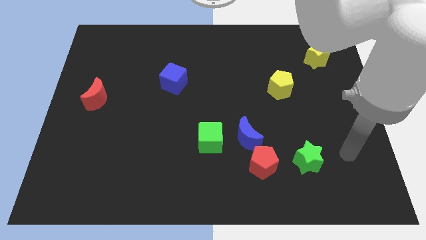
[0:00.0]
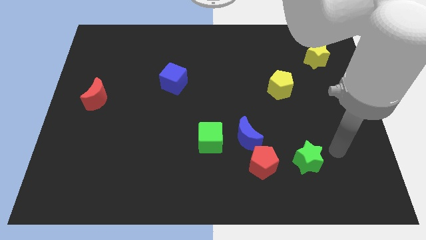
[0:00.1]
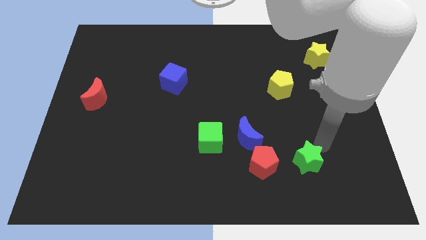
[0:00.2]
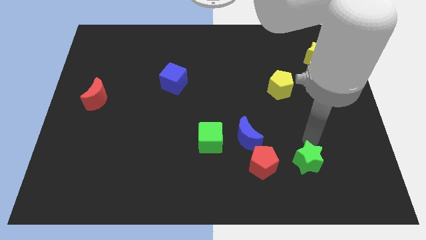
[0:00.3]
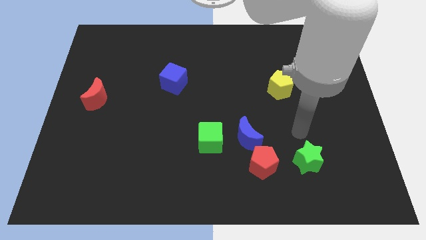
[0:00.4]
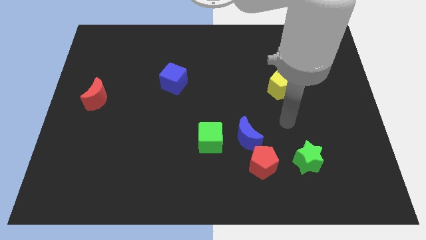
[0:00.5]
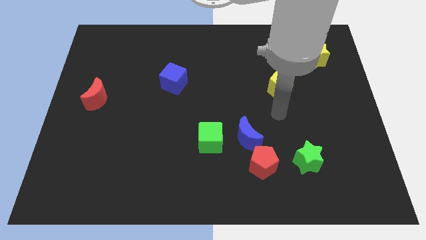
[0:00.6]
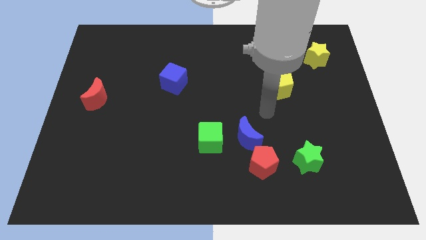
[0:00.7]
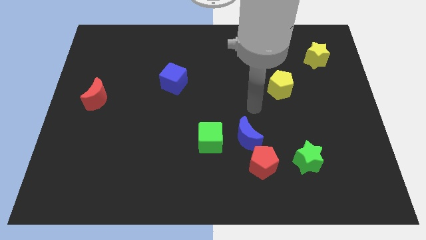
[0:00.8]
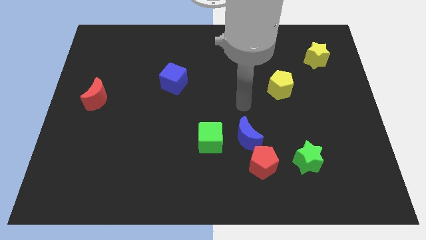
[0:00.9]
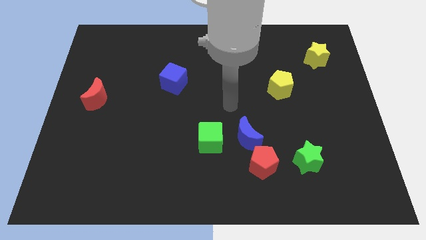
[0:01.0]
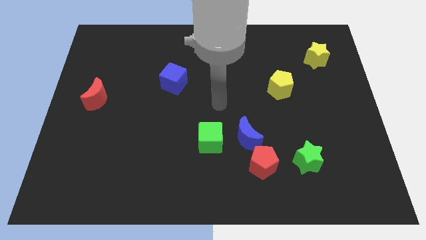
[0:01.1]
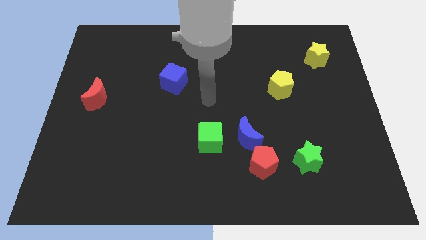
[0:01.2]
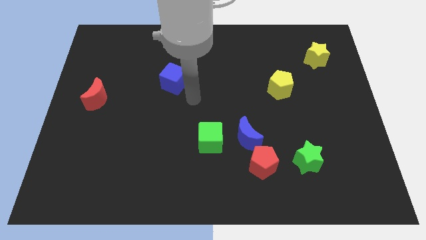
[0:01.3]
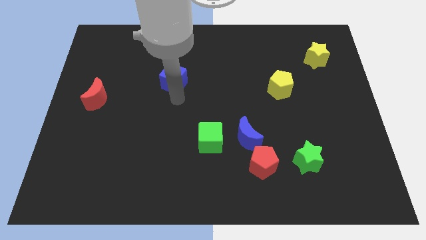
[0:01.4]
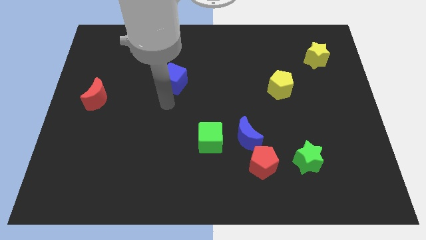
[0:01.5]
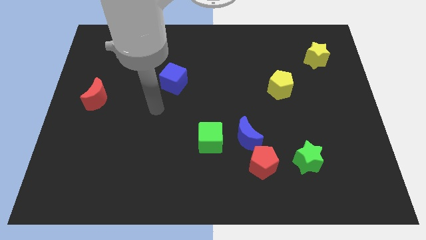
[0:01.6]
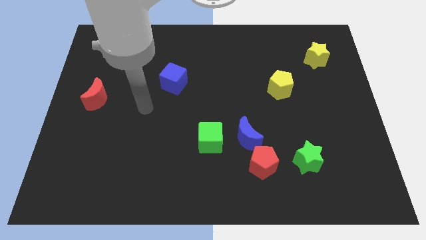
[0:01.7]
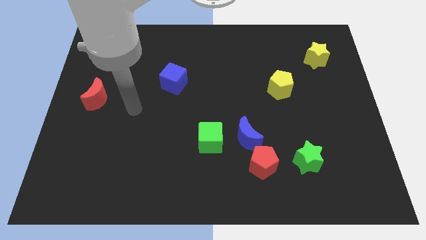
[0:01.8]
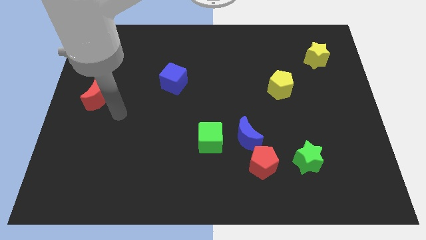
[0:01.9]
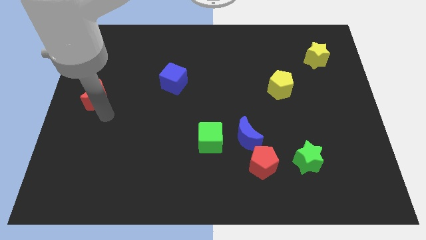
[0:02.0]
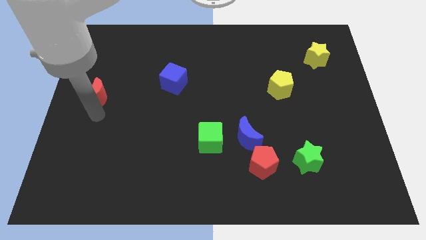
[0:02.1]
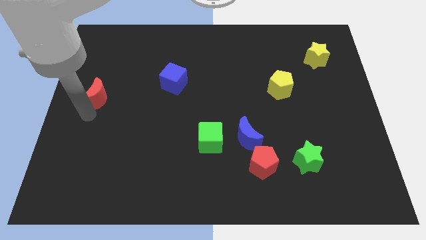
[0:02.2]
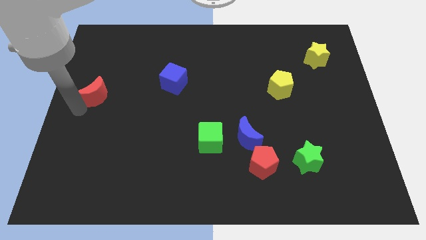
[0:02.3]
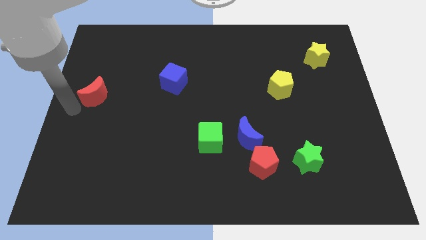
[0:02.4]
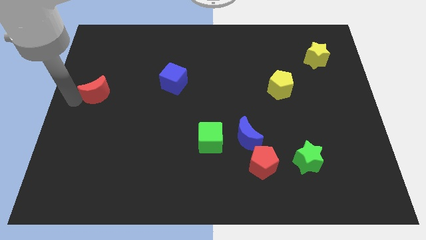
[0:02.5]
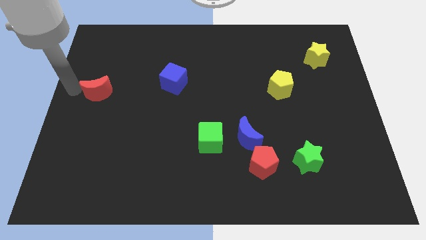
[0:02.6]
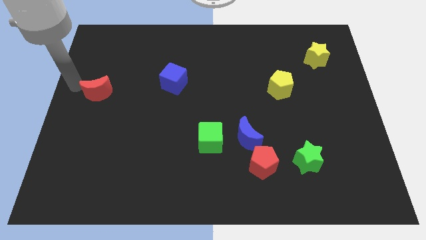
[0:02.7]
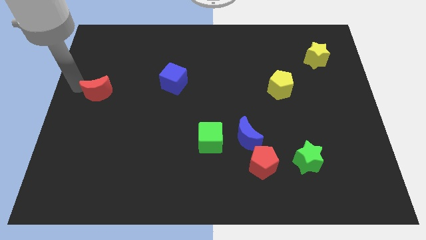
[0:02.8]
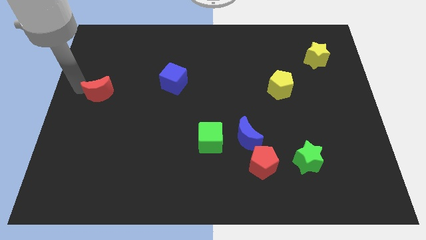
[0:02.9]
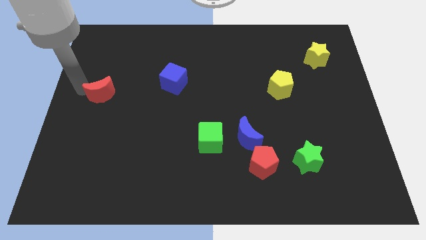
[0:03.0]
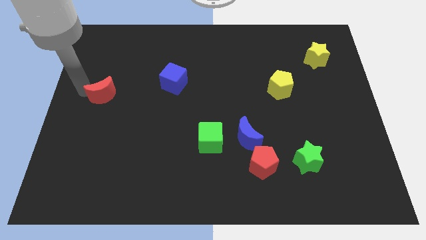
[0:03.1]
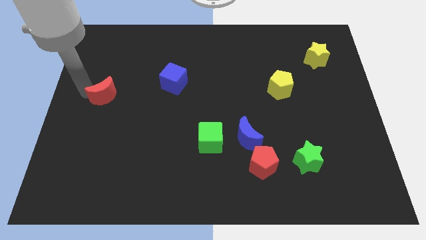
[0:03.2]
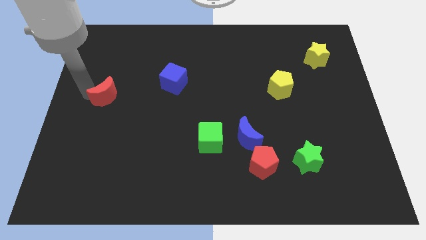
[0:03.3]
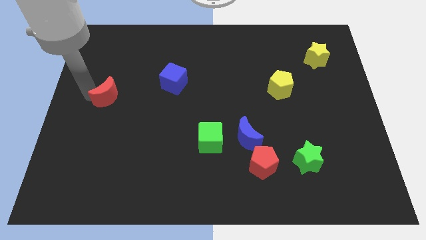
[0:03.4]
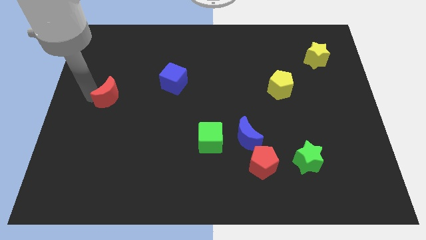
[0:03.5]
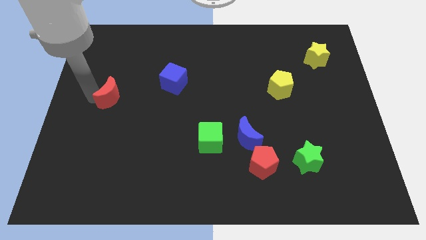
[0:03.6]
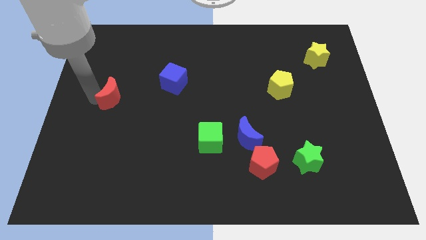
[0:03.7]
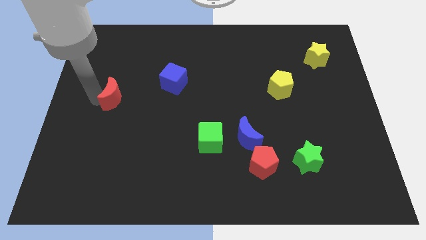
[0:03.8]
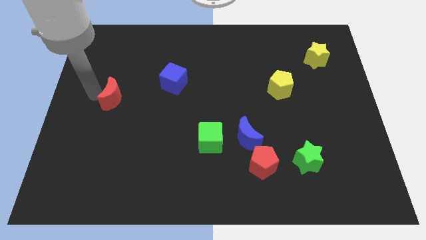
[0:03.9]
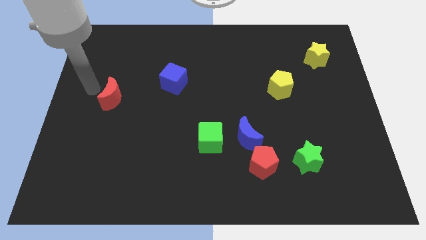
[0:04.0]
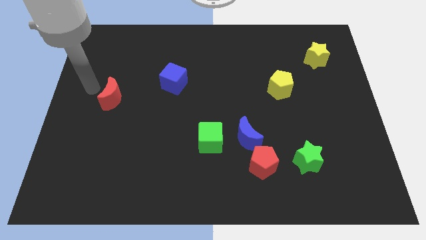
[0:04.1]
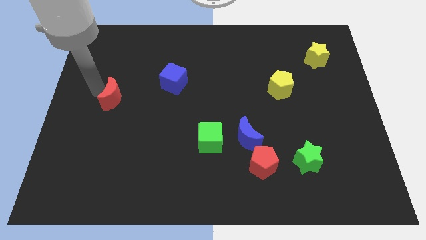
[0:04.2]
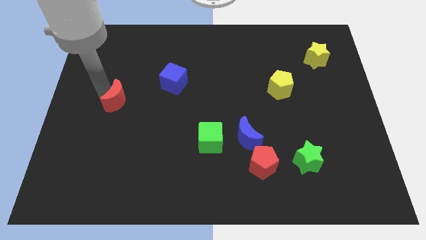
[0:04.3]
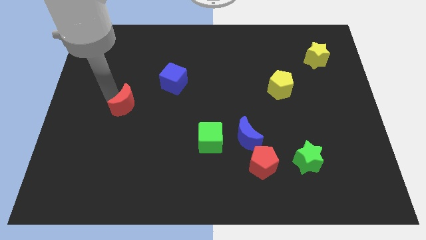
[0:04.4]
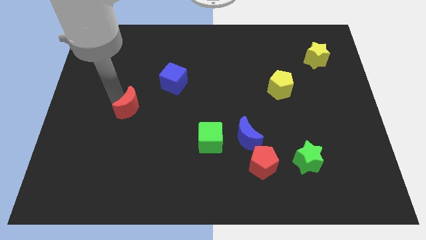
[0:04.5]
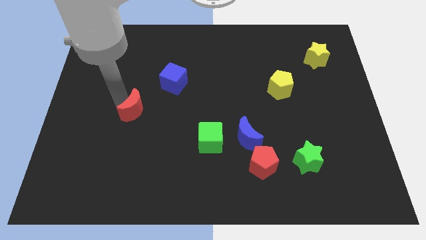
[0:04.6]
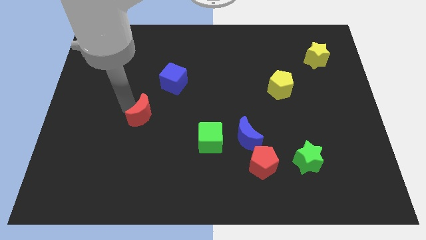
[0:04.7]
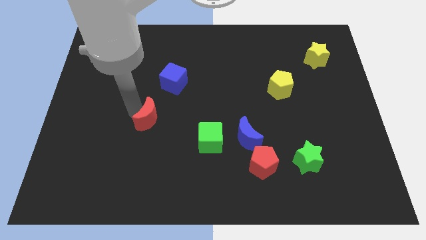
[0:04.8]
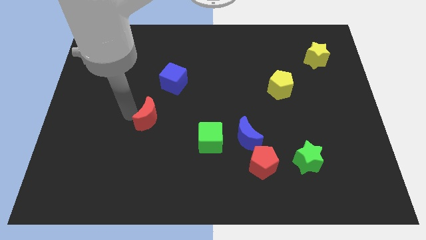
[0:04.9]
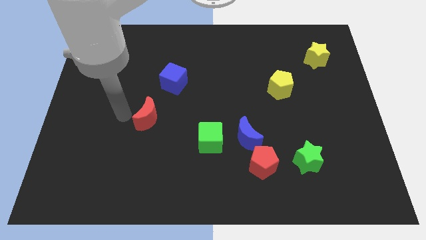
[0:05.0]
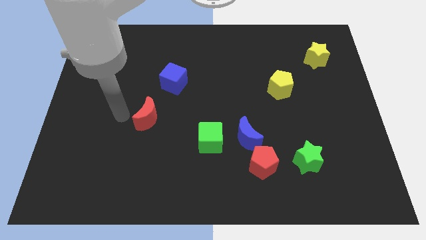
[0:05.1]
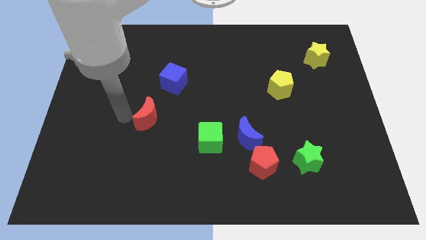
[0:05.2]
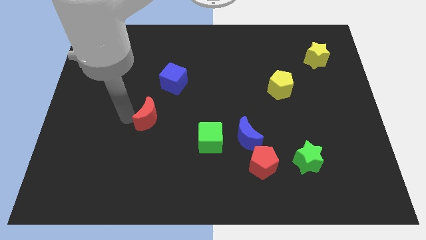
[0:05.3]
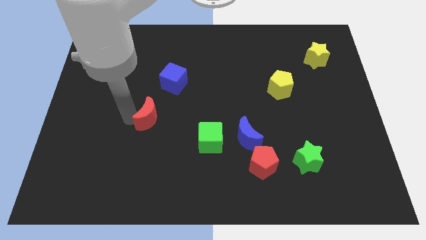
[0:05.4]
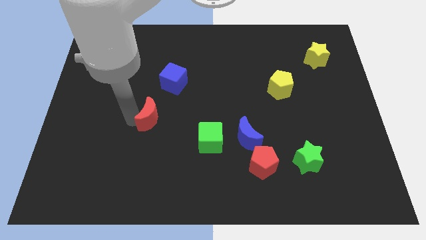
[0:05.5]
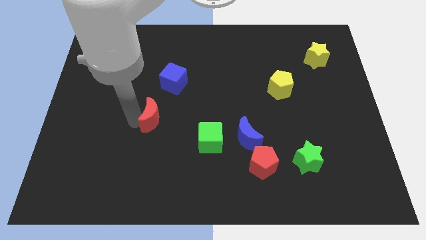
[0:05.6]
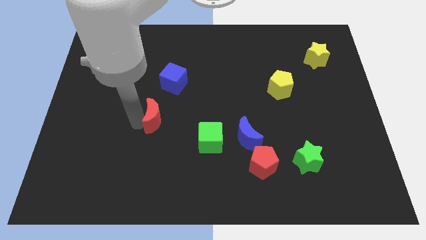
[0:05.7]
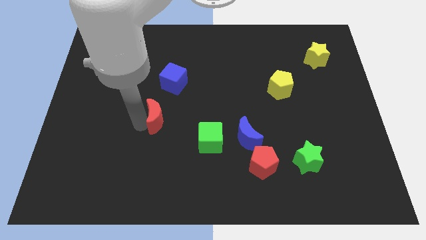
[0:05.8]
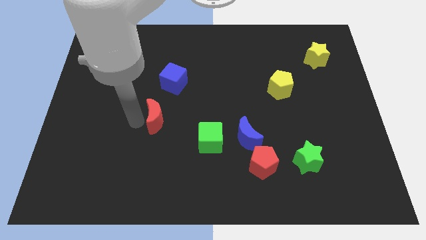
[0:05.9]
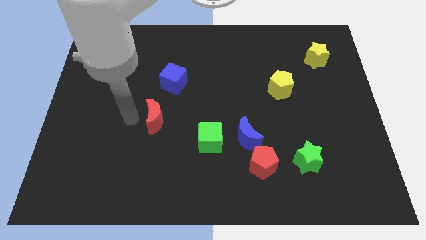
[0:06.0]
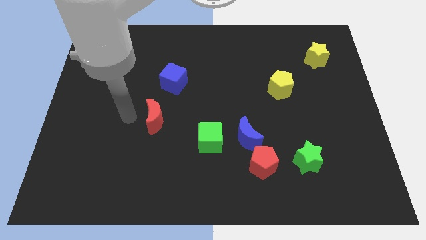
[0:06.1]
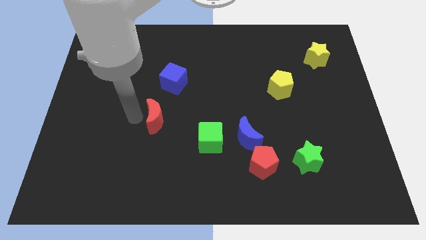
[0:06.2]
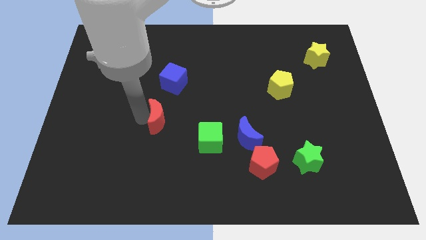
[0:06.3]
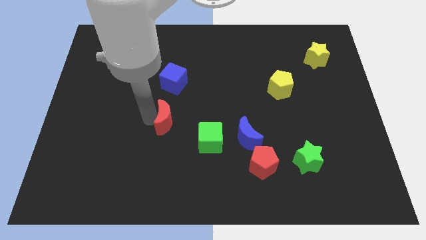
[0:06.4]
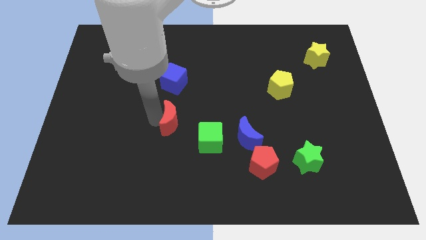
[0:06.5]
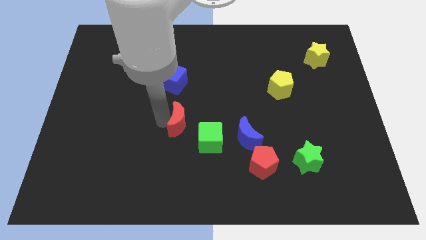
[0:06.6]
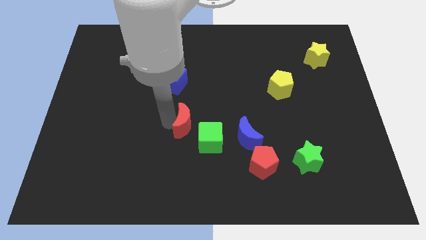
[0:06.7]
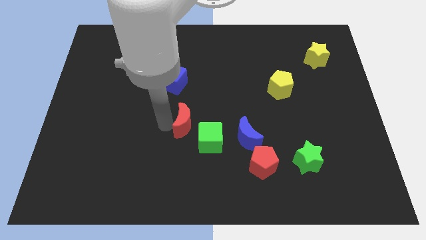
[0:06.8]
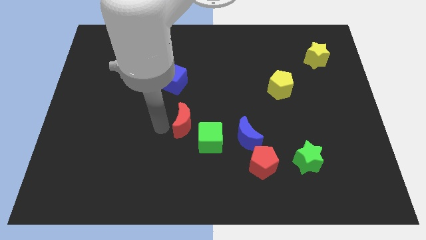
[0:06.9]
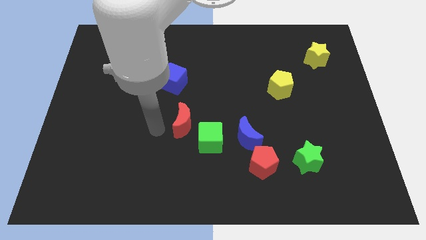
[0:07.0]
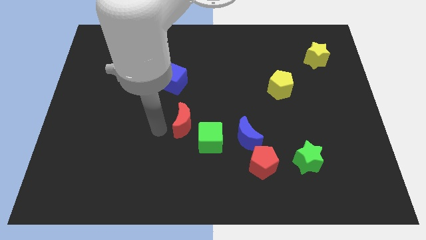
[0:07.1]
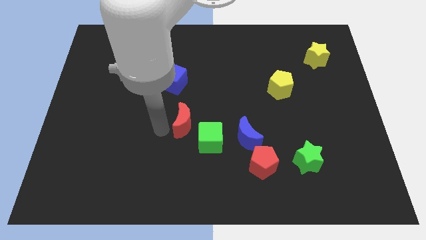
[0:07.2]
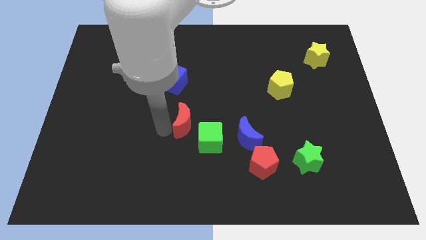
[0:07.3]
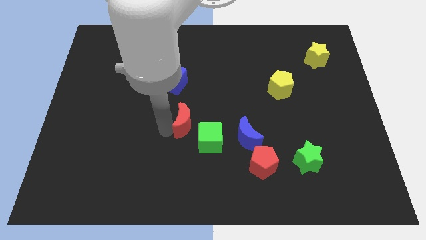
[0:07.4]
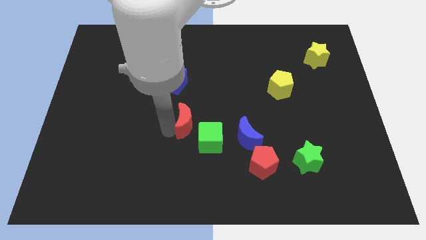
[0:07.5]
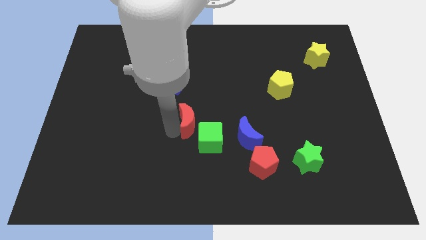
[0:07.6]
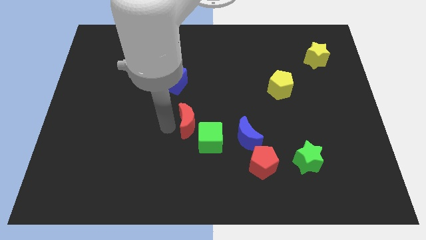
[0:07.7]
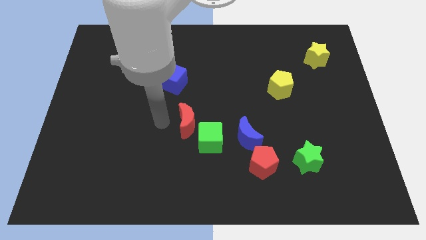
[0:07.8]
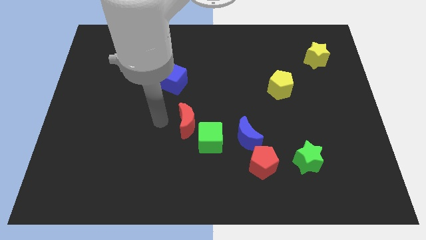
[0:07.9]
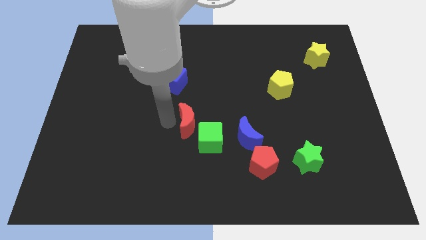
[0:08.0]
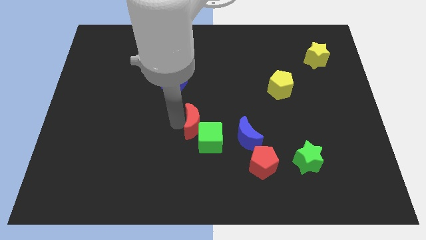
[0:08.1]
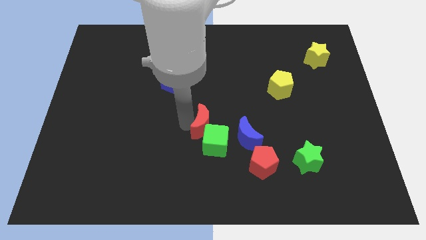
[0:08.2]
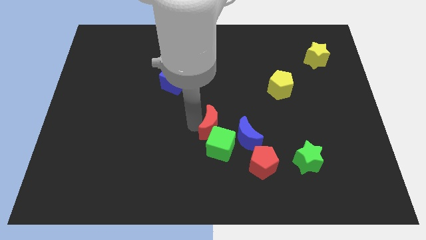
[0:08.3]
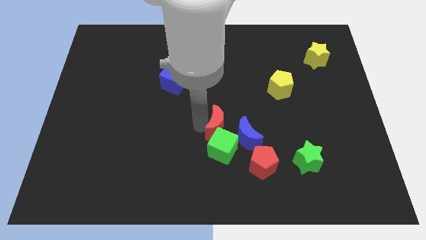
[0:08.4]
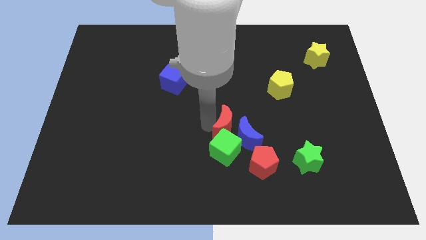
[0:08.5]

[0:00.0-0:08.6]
push the red moon next to the blue moon
